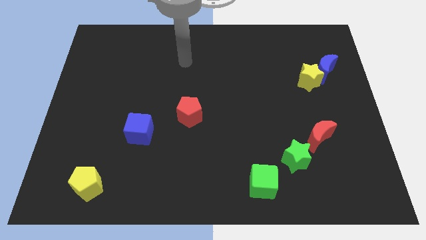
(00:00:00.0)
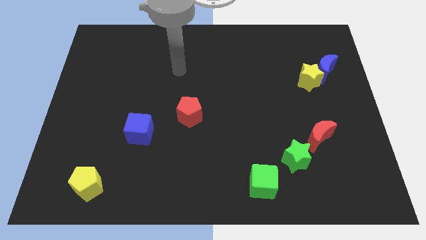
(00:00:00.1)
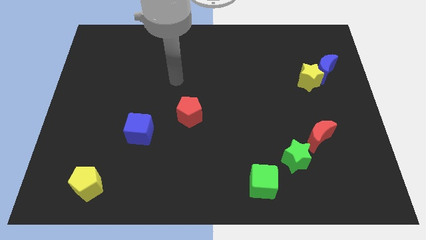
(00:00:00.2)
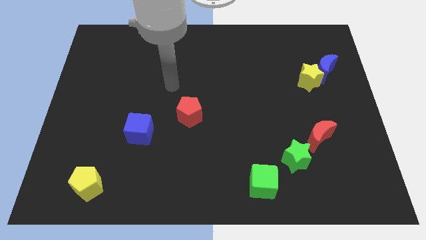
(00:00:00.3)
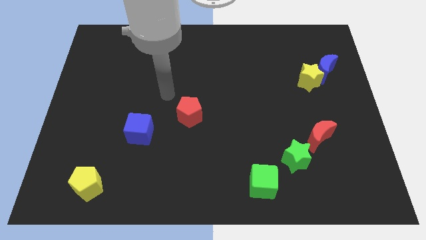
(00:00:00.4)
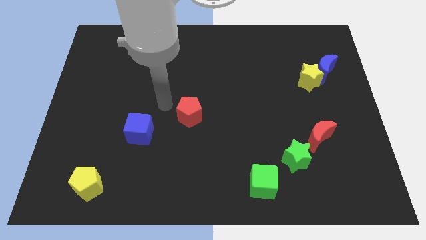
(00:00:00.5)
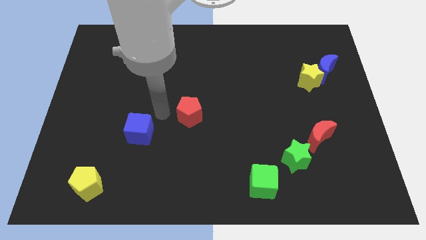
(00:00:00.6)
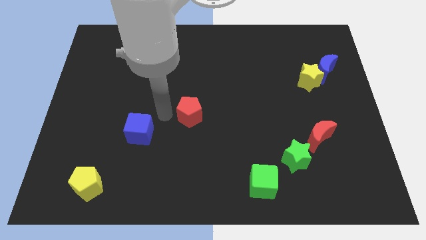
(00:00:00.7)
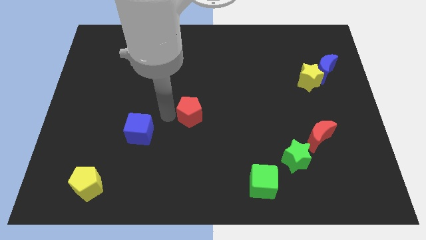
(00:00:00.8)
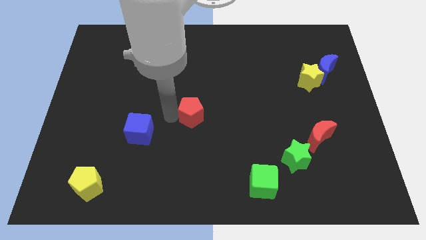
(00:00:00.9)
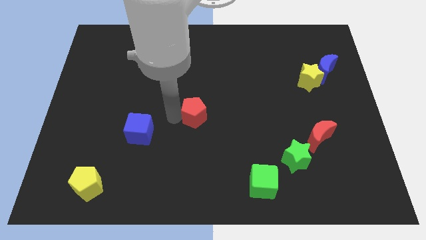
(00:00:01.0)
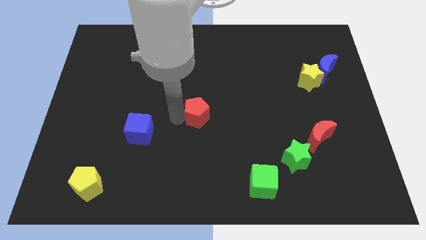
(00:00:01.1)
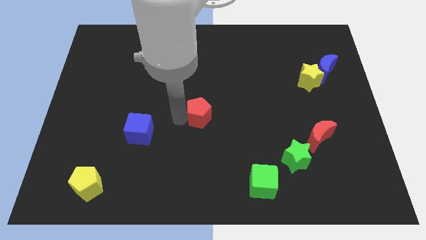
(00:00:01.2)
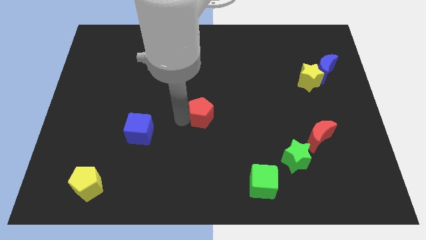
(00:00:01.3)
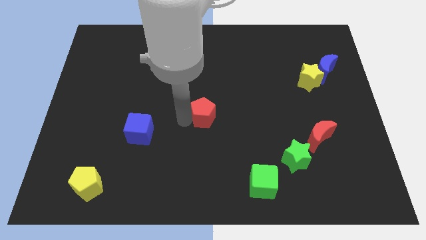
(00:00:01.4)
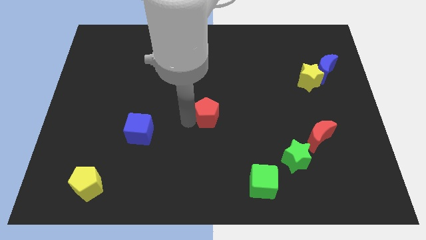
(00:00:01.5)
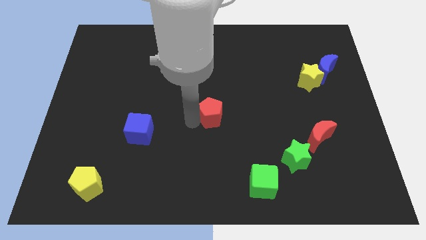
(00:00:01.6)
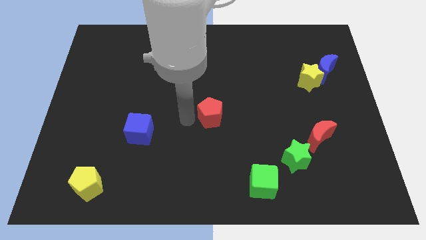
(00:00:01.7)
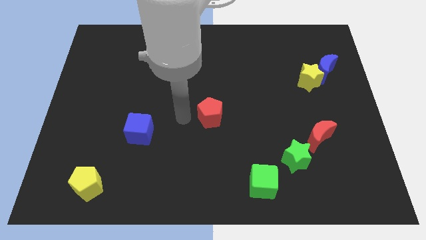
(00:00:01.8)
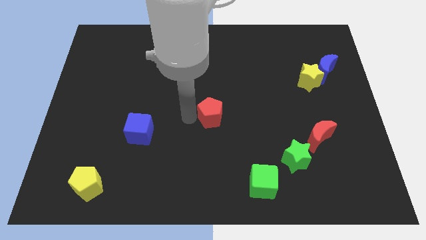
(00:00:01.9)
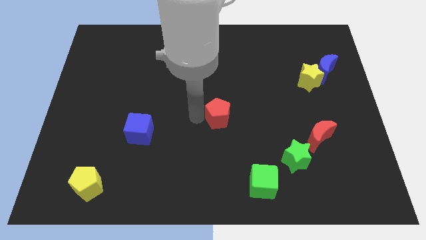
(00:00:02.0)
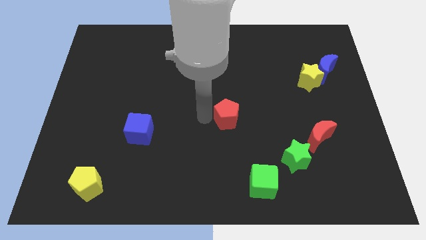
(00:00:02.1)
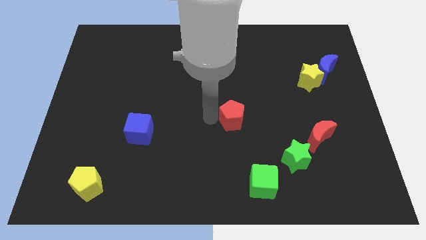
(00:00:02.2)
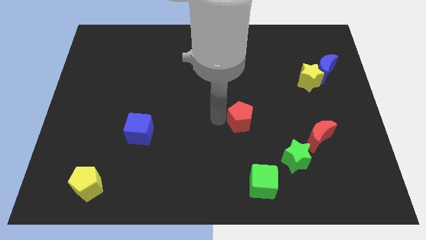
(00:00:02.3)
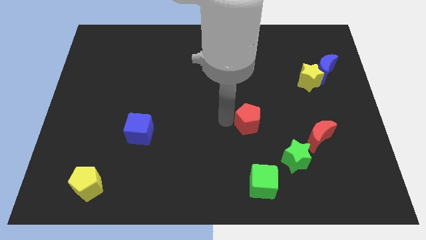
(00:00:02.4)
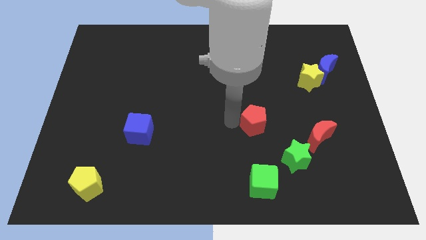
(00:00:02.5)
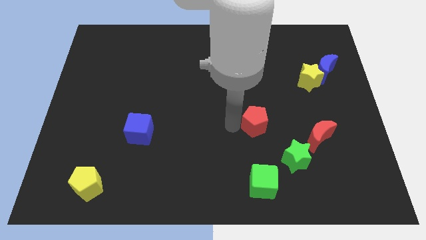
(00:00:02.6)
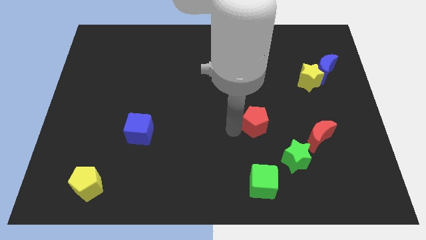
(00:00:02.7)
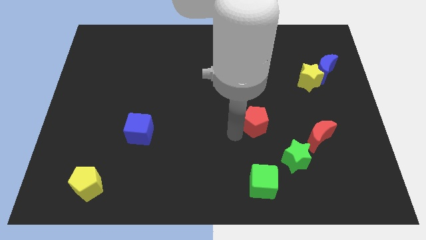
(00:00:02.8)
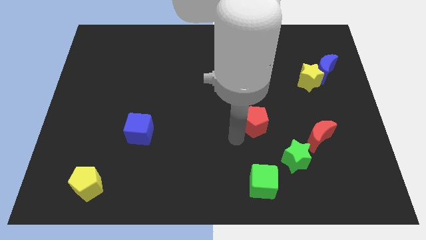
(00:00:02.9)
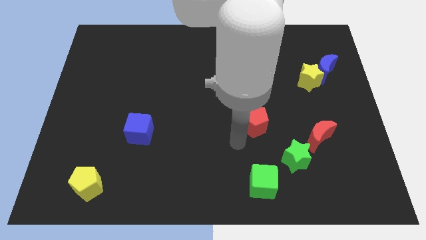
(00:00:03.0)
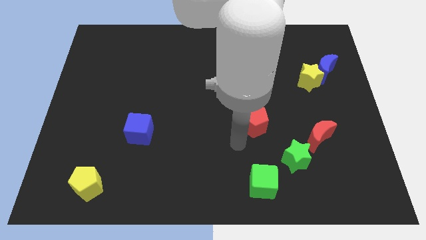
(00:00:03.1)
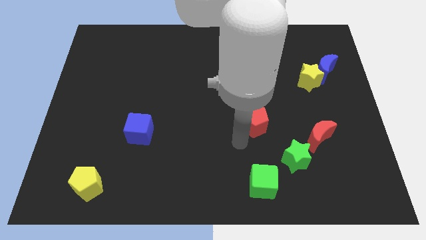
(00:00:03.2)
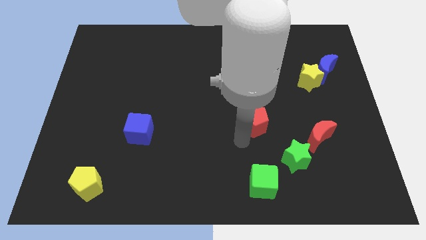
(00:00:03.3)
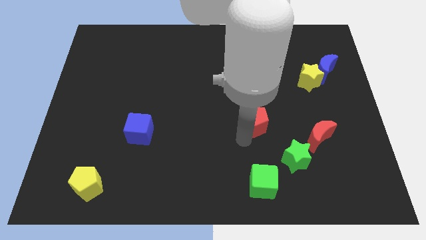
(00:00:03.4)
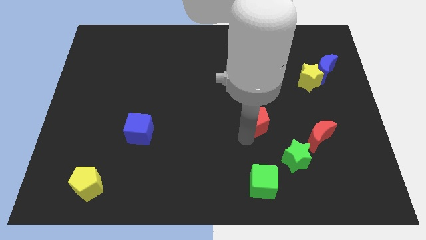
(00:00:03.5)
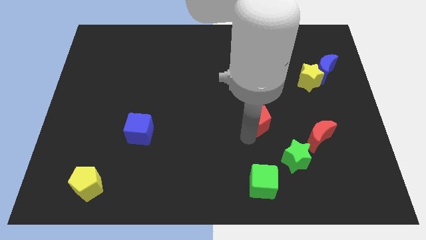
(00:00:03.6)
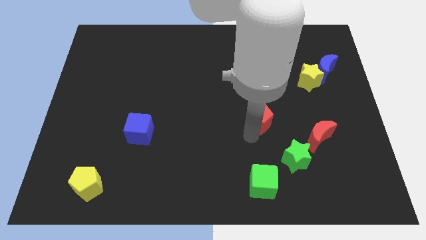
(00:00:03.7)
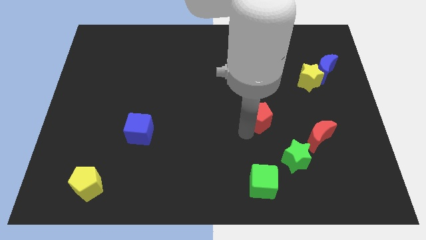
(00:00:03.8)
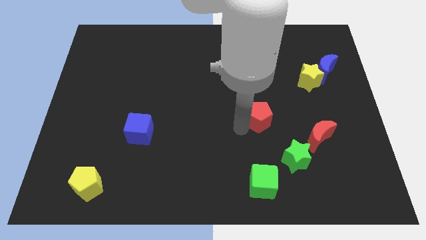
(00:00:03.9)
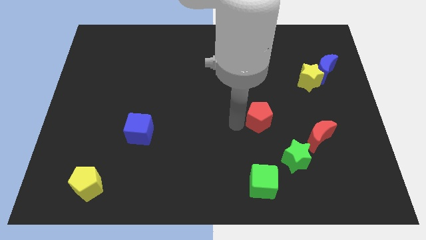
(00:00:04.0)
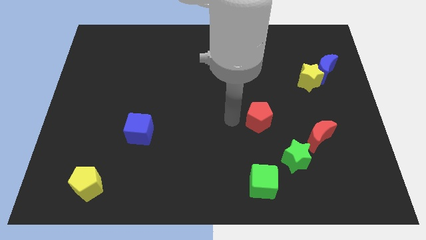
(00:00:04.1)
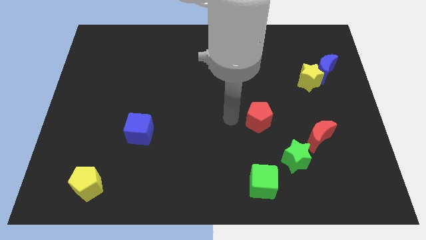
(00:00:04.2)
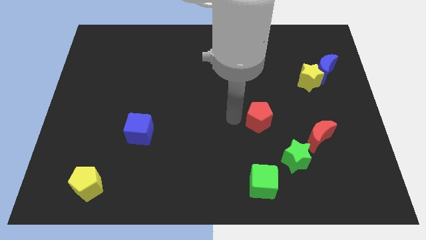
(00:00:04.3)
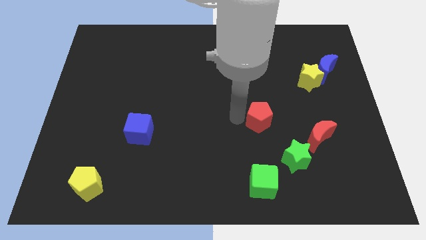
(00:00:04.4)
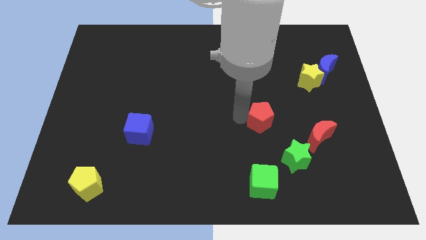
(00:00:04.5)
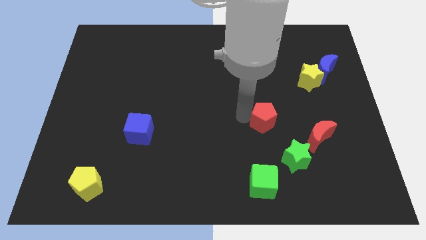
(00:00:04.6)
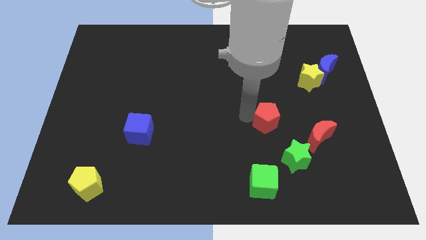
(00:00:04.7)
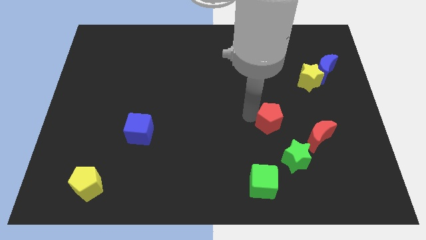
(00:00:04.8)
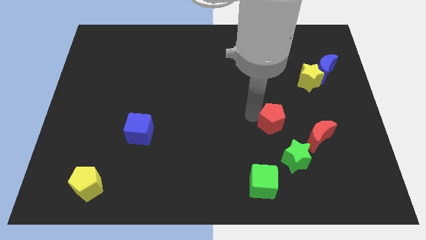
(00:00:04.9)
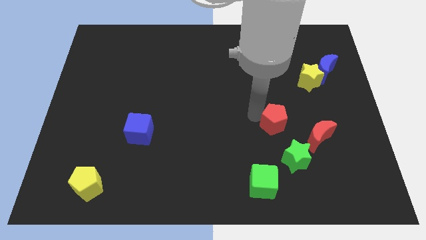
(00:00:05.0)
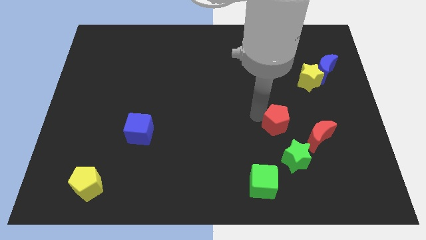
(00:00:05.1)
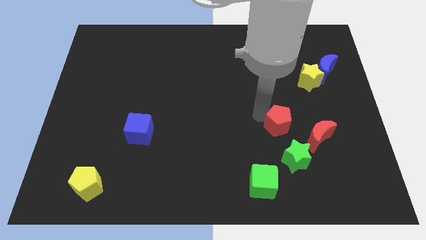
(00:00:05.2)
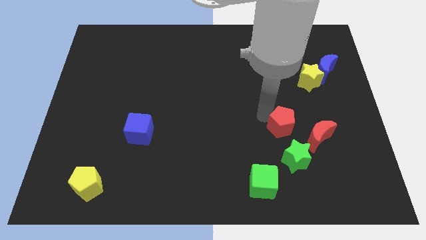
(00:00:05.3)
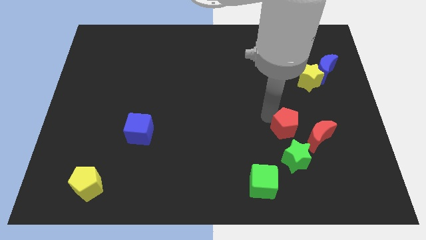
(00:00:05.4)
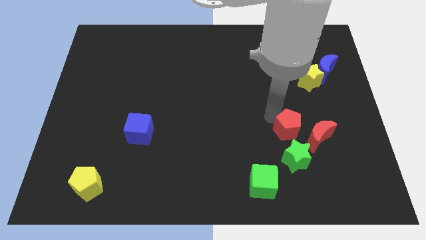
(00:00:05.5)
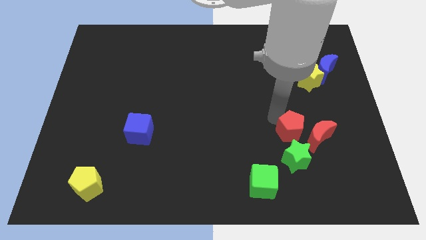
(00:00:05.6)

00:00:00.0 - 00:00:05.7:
push the red pentagon next to the red moon

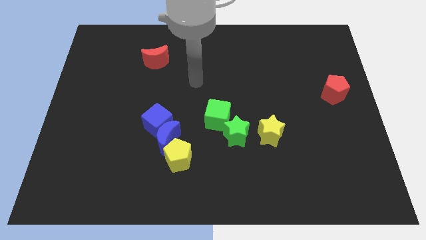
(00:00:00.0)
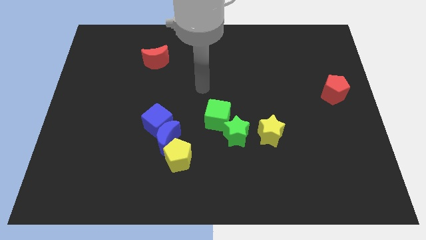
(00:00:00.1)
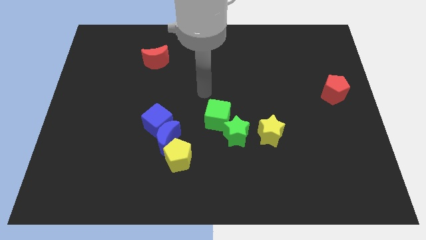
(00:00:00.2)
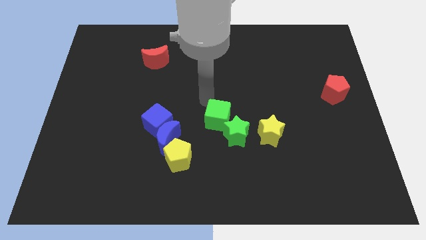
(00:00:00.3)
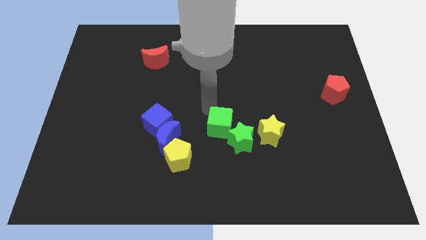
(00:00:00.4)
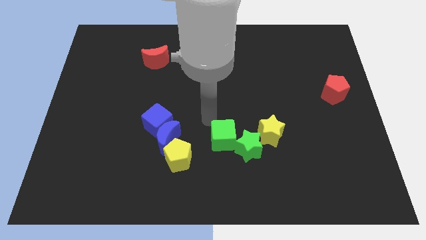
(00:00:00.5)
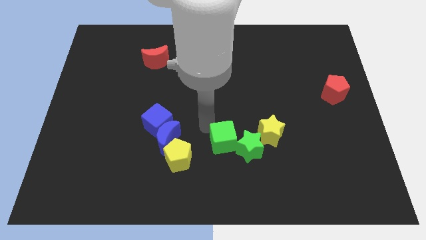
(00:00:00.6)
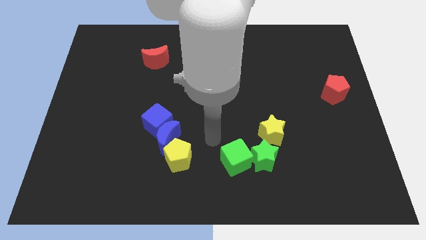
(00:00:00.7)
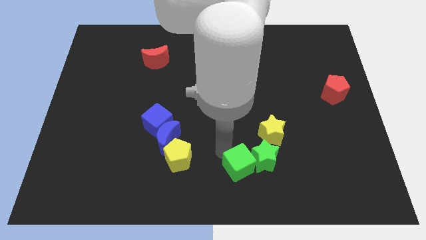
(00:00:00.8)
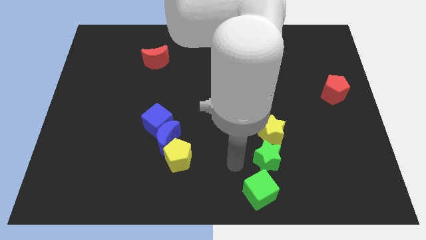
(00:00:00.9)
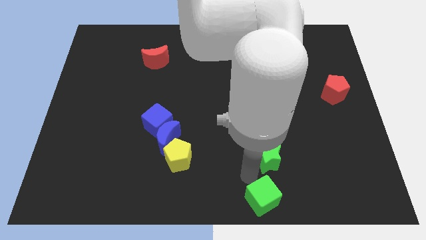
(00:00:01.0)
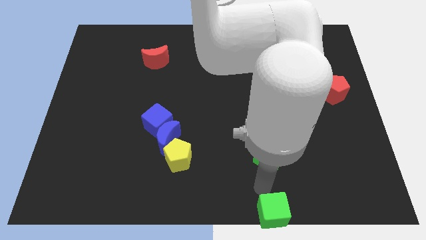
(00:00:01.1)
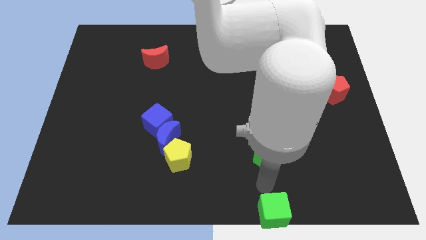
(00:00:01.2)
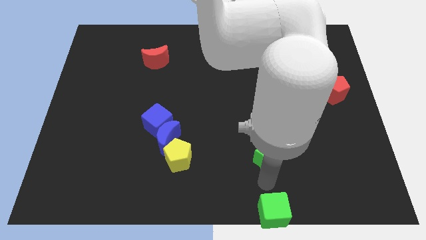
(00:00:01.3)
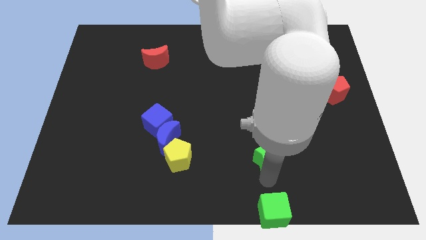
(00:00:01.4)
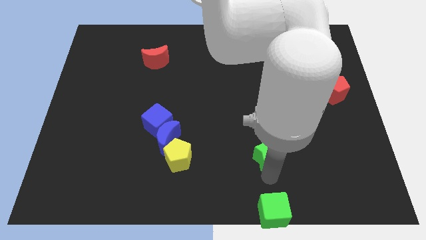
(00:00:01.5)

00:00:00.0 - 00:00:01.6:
slide the green star close to the yellow star
